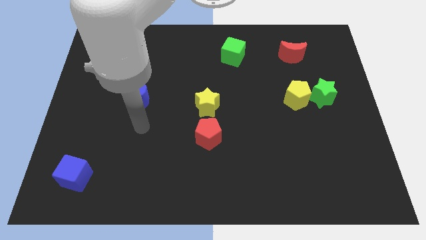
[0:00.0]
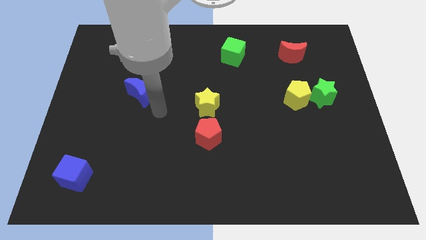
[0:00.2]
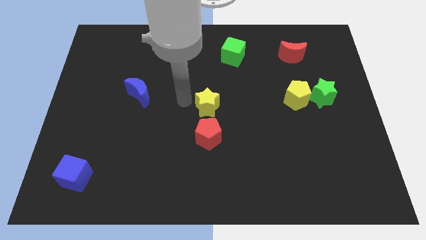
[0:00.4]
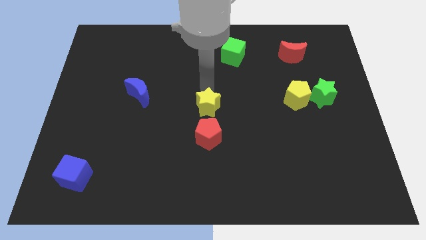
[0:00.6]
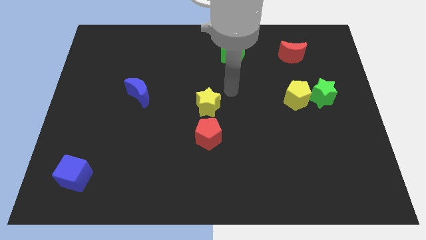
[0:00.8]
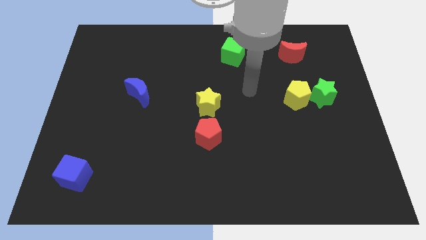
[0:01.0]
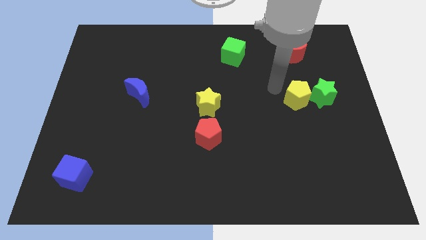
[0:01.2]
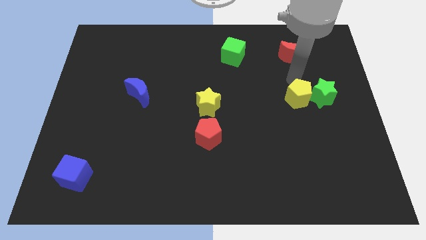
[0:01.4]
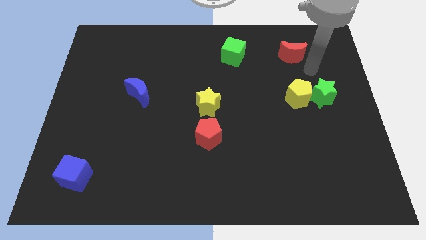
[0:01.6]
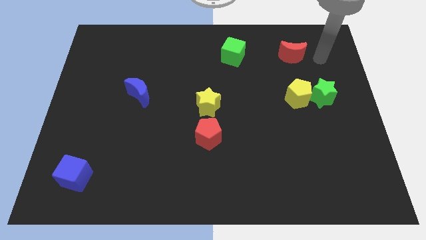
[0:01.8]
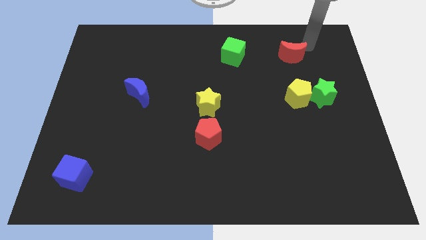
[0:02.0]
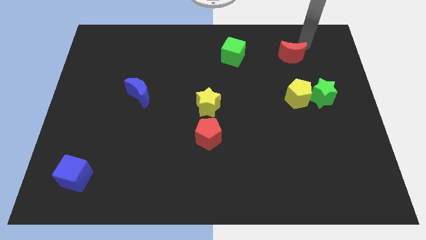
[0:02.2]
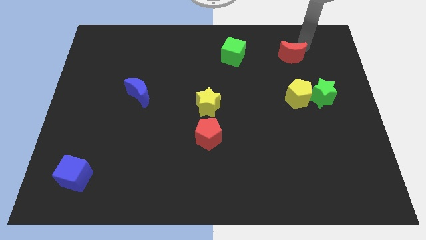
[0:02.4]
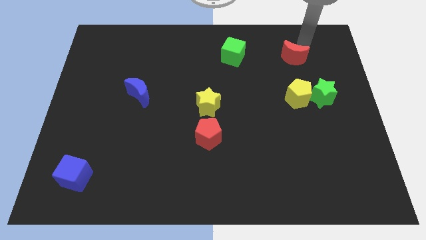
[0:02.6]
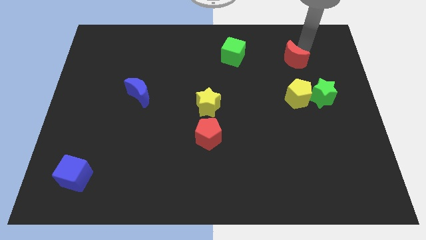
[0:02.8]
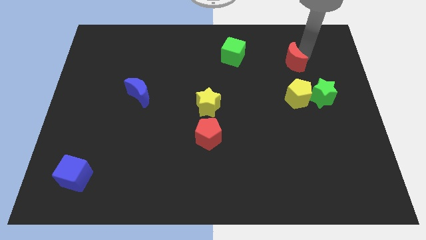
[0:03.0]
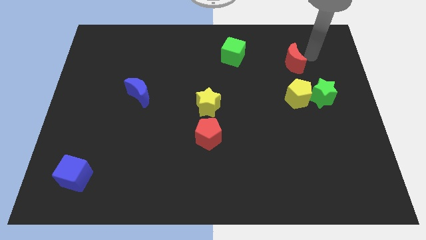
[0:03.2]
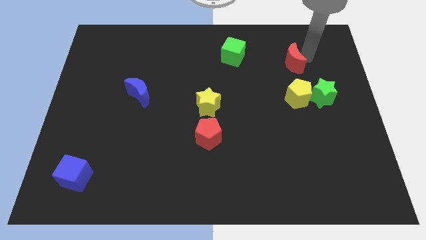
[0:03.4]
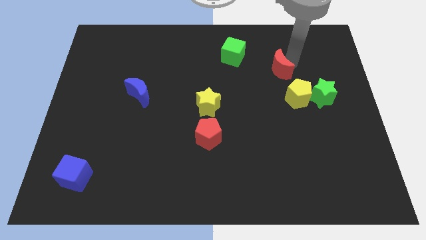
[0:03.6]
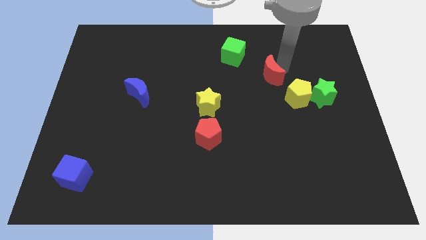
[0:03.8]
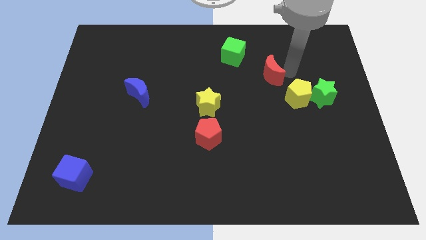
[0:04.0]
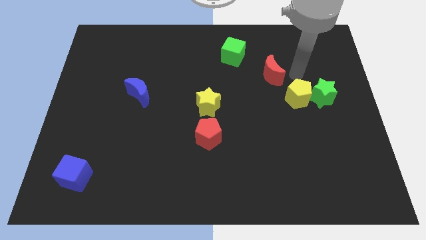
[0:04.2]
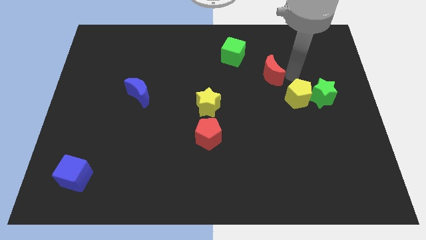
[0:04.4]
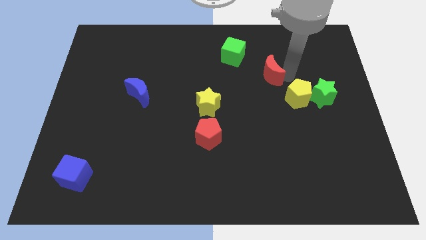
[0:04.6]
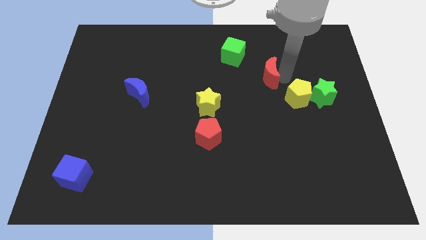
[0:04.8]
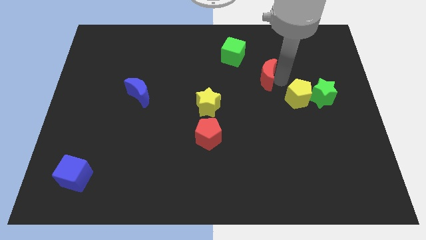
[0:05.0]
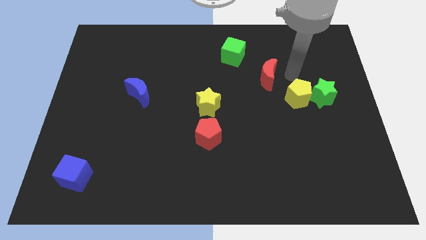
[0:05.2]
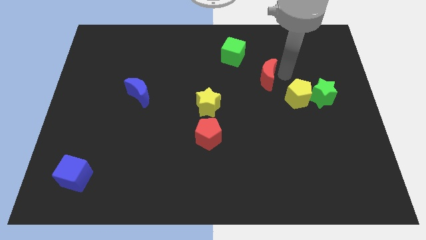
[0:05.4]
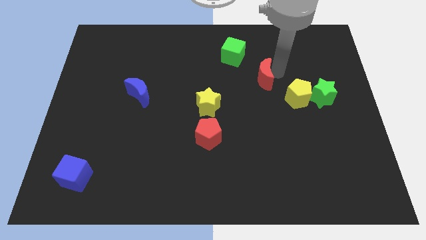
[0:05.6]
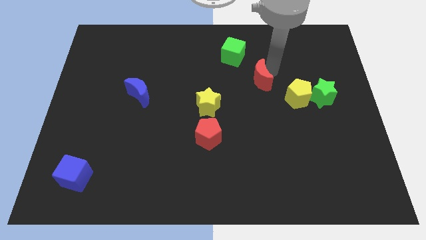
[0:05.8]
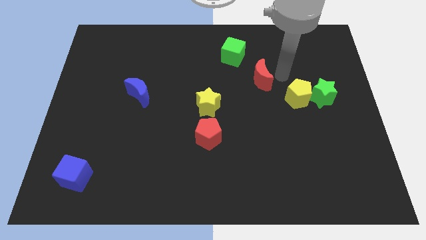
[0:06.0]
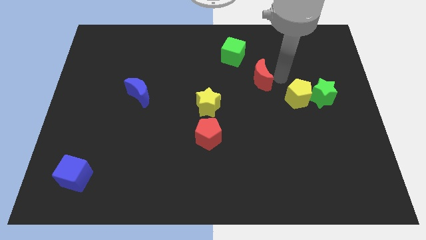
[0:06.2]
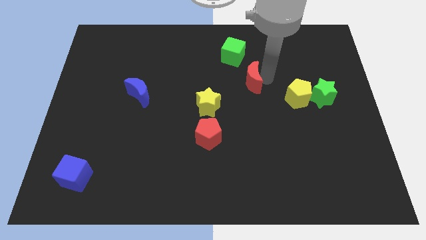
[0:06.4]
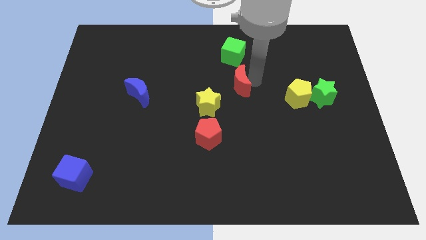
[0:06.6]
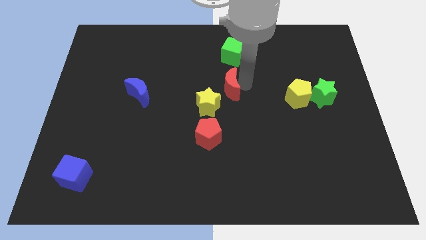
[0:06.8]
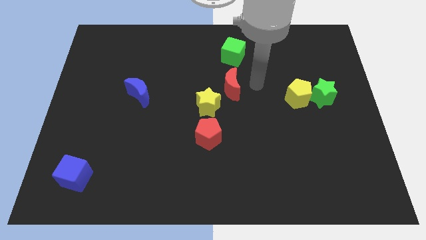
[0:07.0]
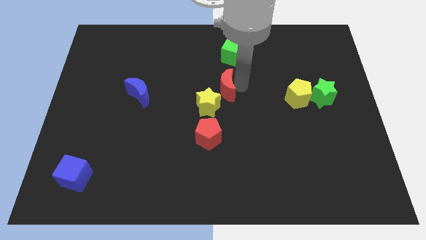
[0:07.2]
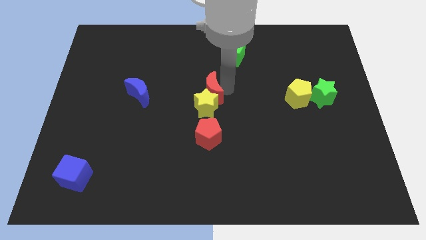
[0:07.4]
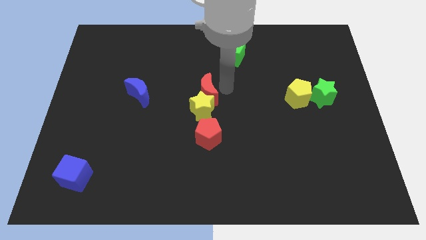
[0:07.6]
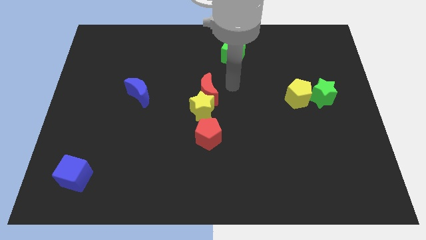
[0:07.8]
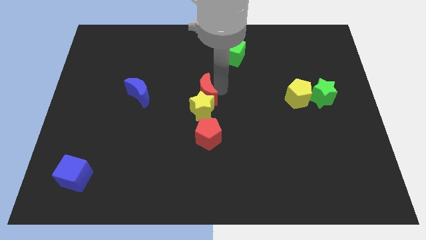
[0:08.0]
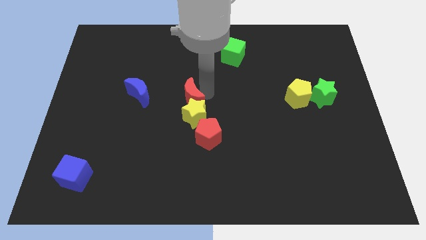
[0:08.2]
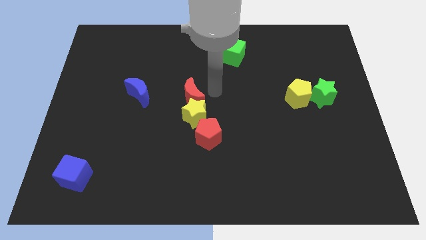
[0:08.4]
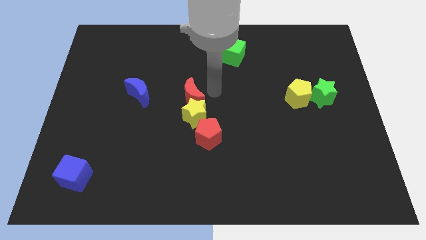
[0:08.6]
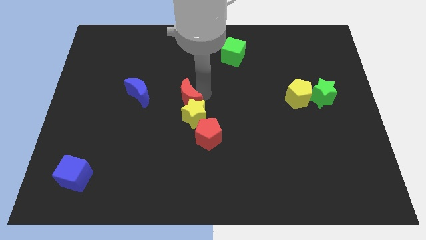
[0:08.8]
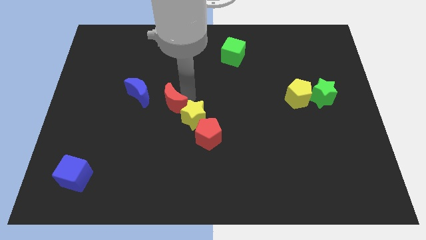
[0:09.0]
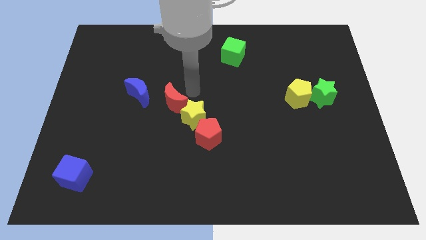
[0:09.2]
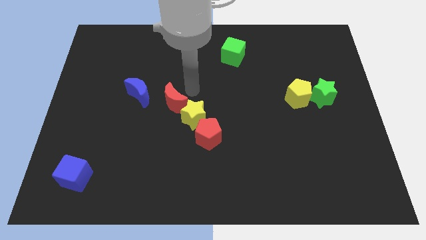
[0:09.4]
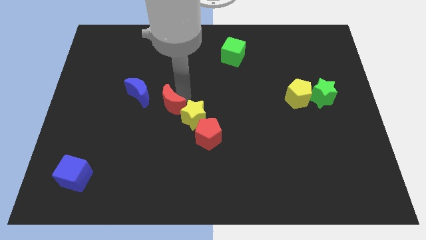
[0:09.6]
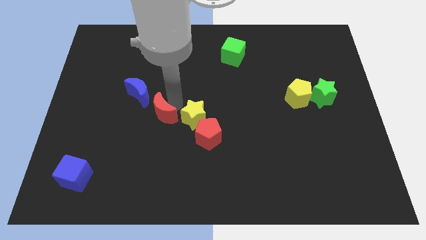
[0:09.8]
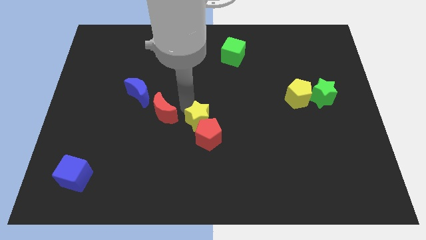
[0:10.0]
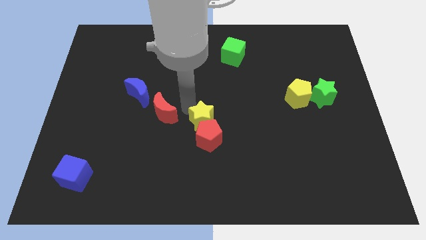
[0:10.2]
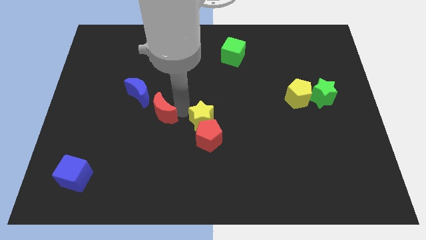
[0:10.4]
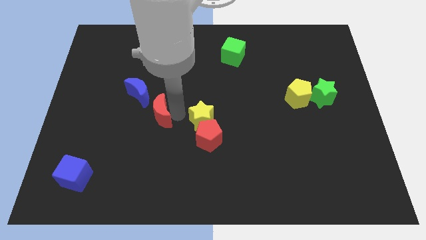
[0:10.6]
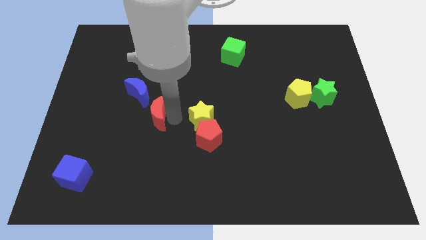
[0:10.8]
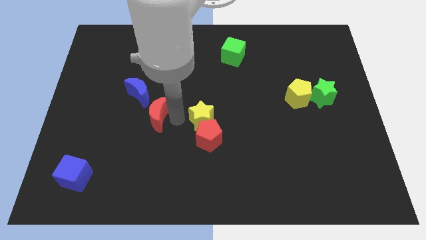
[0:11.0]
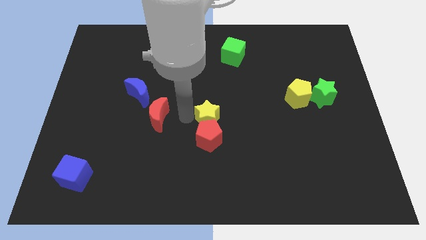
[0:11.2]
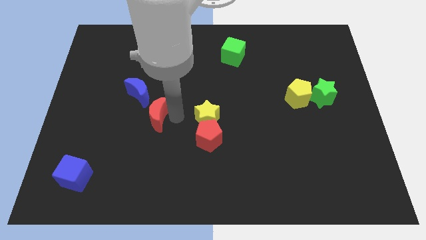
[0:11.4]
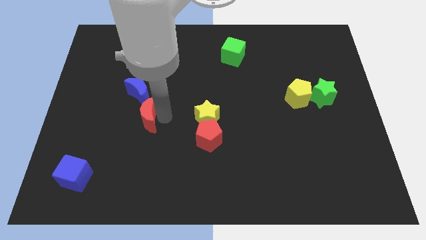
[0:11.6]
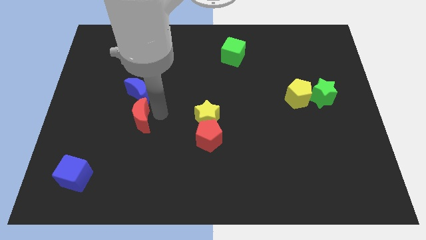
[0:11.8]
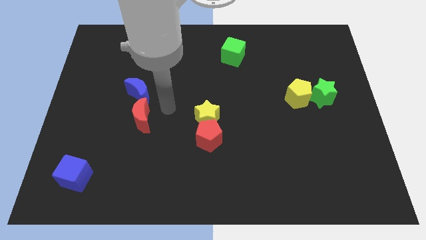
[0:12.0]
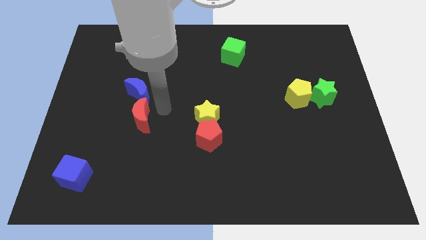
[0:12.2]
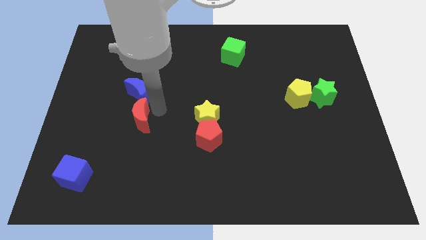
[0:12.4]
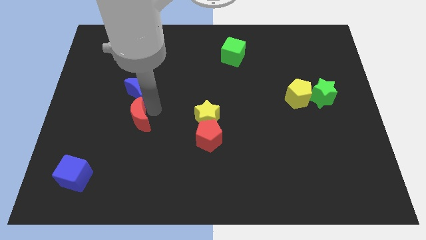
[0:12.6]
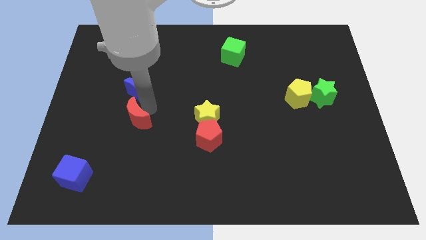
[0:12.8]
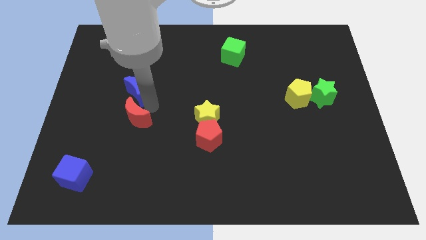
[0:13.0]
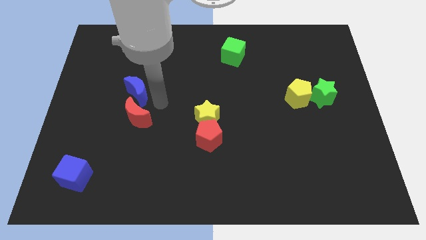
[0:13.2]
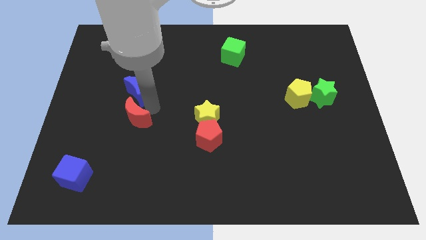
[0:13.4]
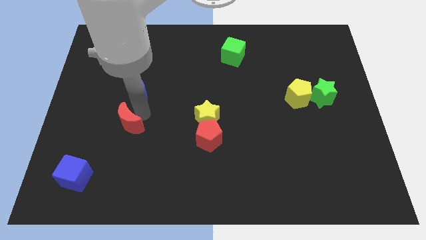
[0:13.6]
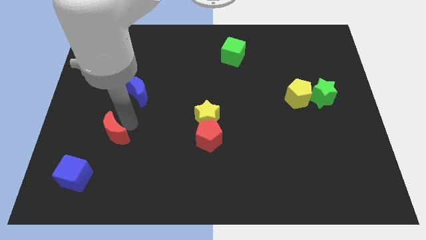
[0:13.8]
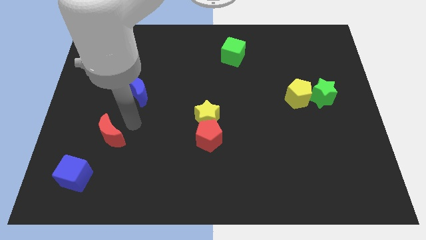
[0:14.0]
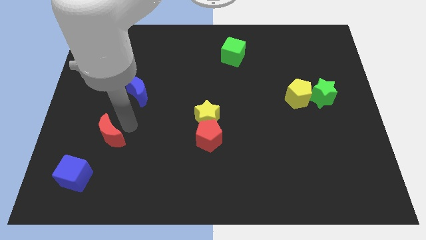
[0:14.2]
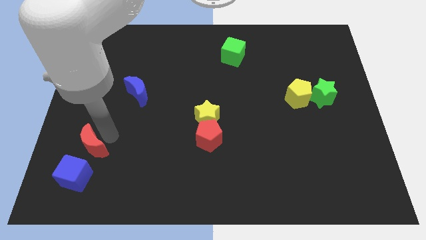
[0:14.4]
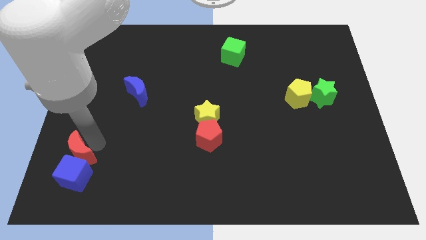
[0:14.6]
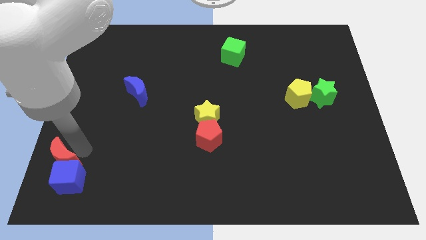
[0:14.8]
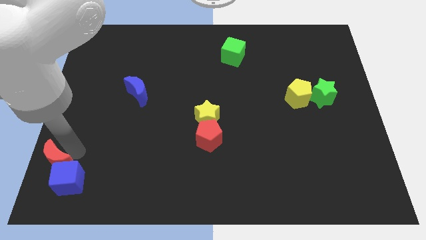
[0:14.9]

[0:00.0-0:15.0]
move the red moon to the bottom left of the board
